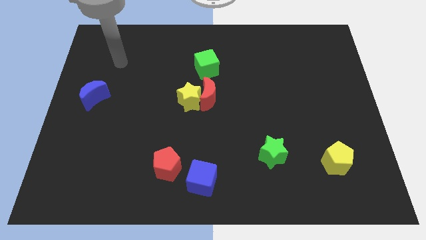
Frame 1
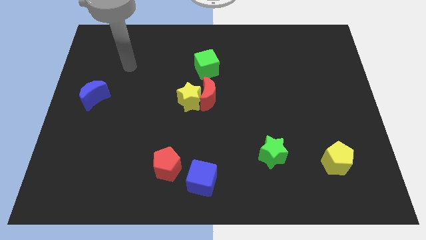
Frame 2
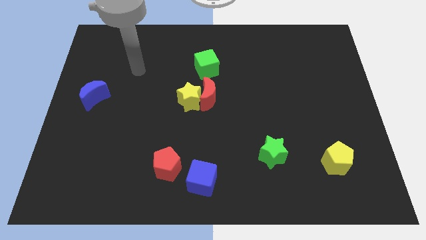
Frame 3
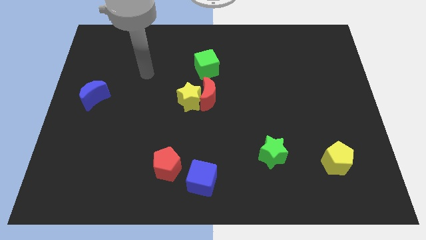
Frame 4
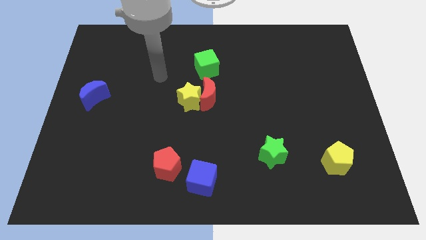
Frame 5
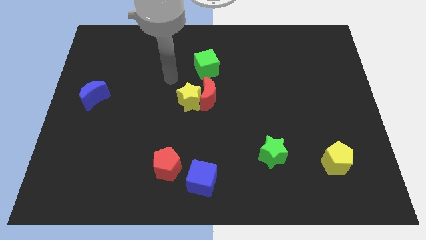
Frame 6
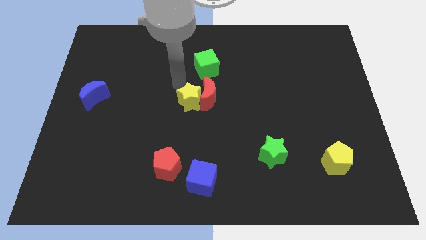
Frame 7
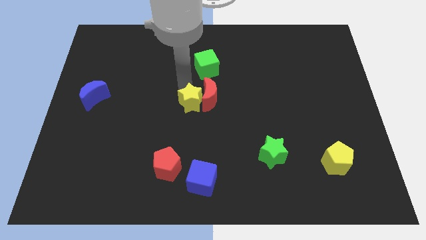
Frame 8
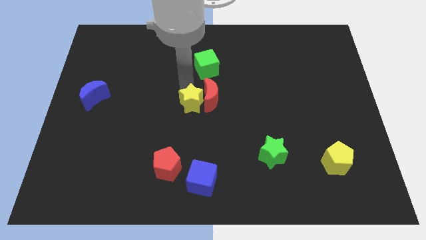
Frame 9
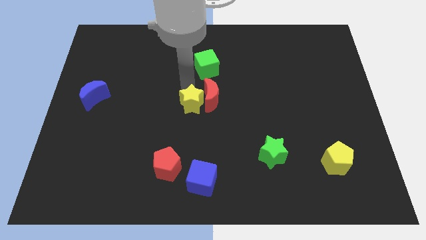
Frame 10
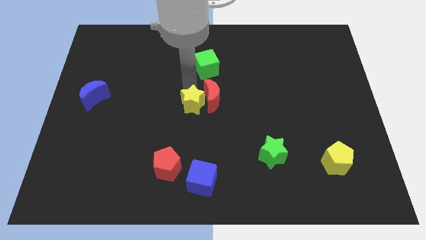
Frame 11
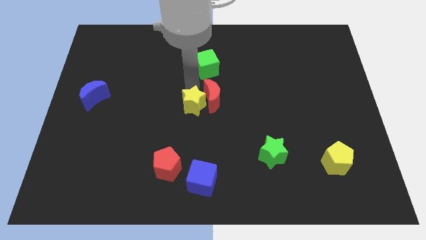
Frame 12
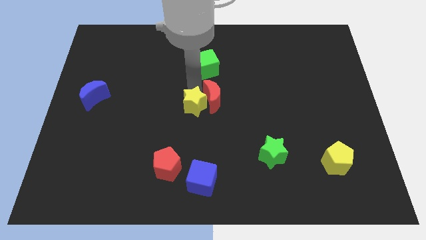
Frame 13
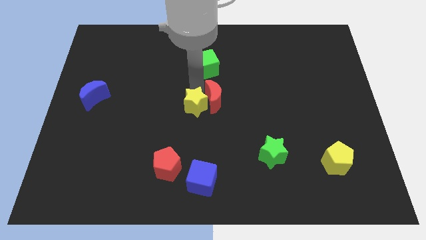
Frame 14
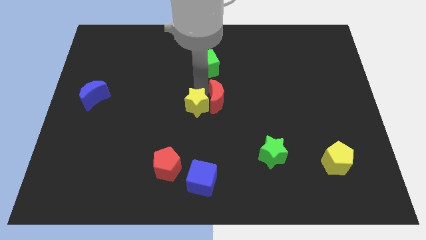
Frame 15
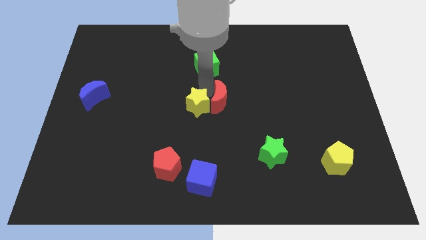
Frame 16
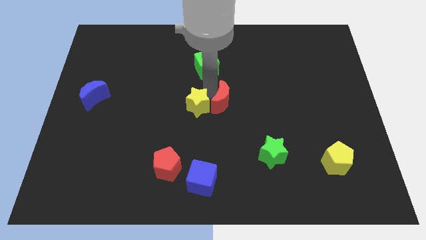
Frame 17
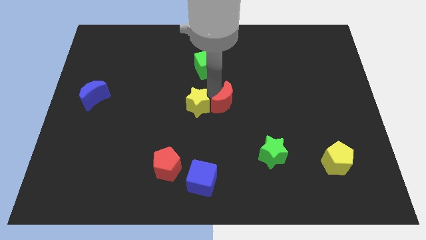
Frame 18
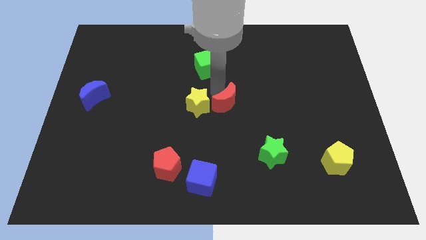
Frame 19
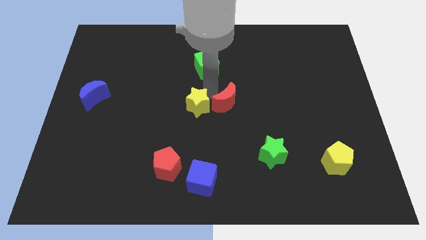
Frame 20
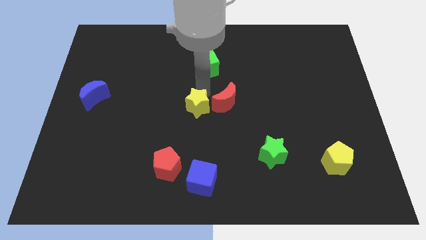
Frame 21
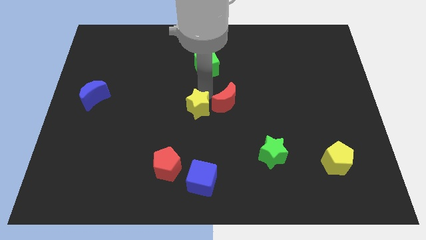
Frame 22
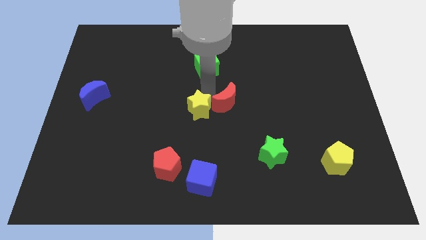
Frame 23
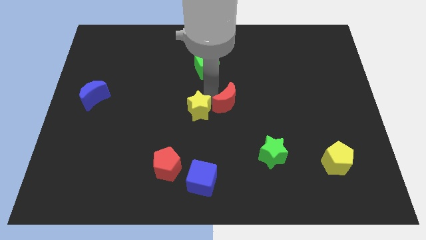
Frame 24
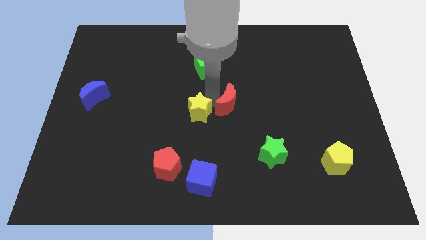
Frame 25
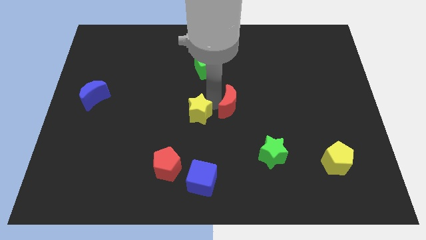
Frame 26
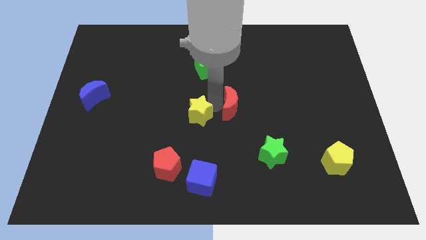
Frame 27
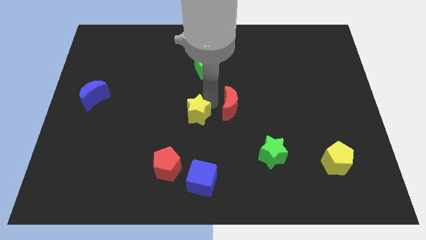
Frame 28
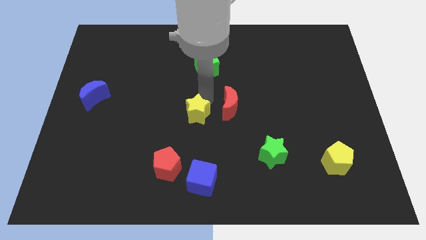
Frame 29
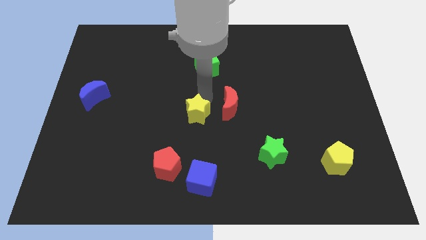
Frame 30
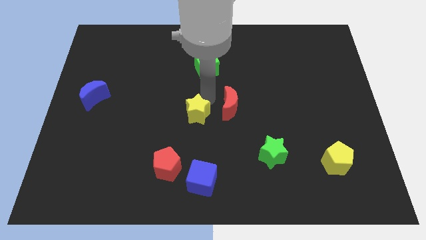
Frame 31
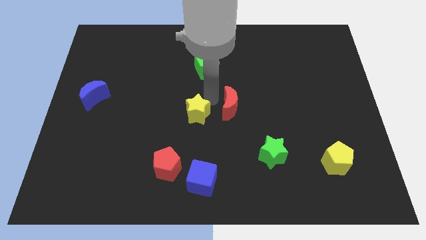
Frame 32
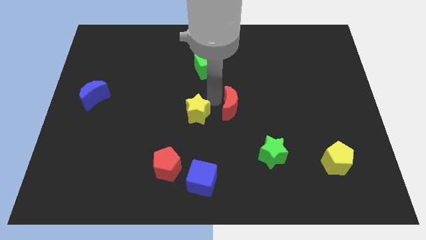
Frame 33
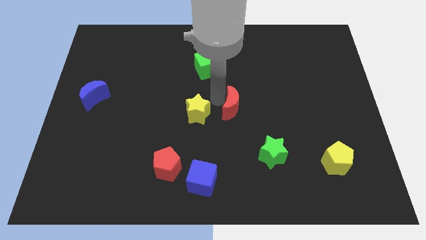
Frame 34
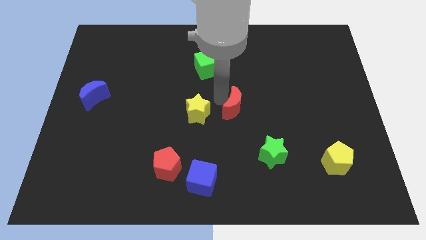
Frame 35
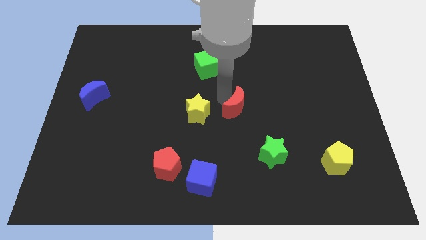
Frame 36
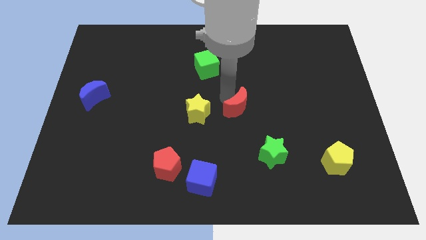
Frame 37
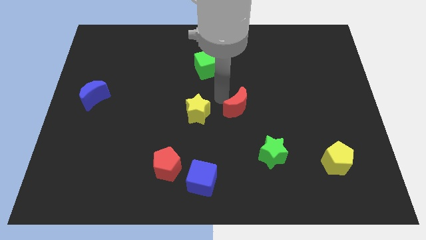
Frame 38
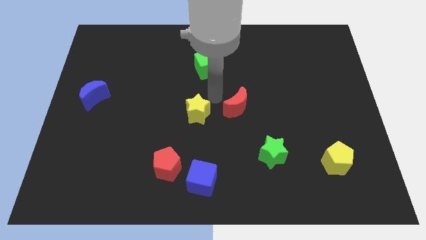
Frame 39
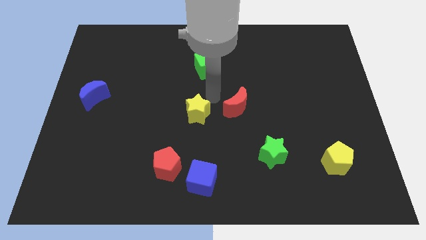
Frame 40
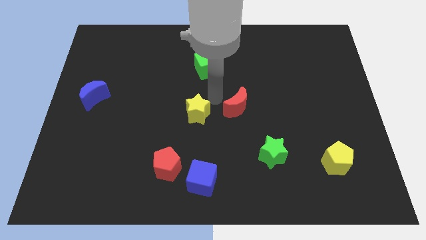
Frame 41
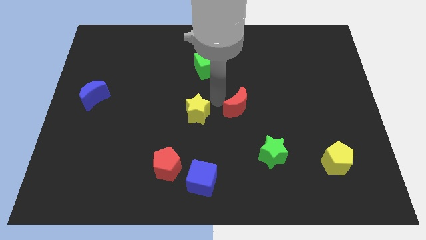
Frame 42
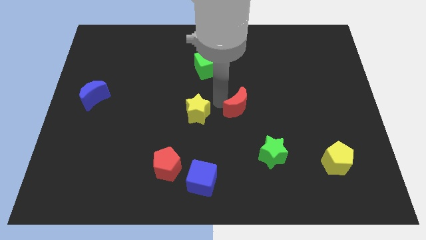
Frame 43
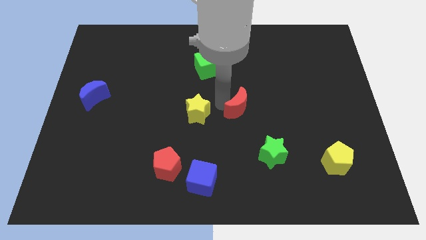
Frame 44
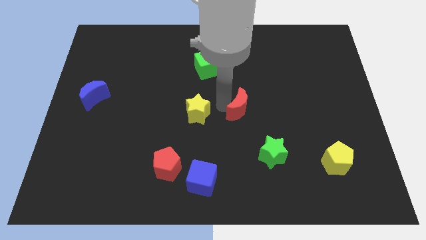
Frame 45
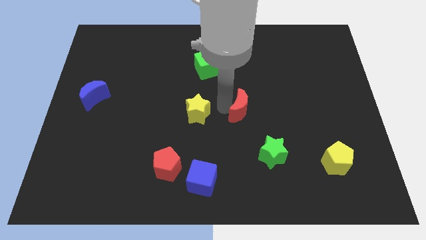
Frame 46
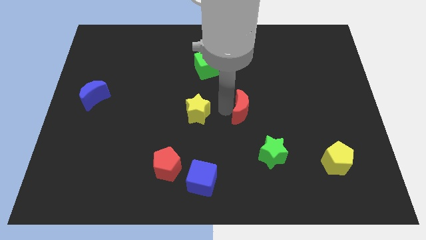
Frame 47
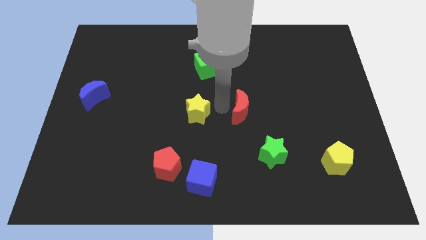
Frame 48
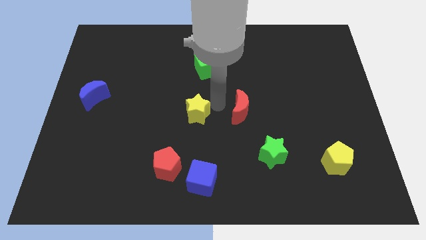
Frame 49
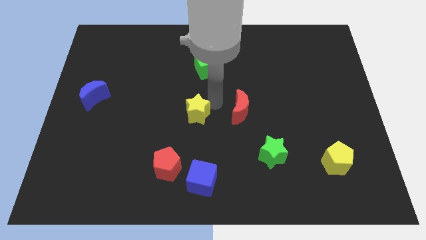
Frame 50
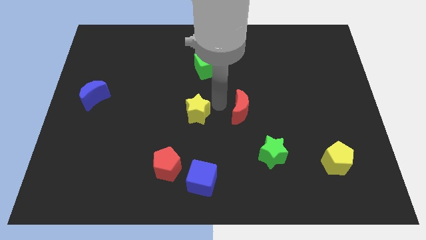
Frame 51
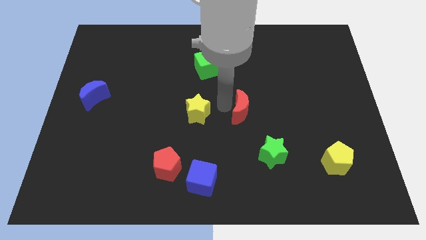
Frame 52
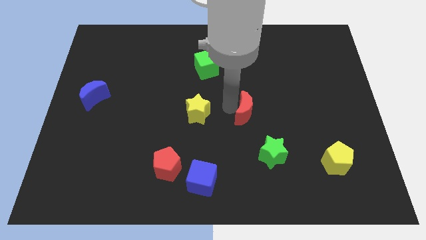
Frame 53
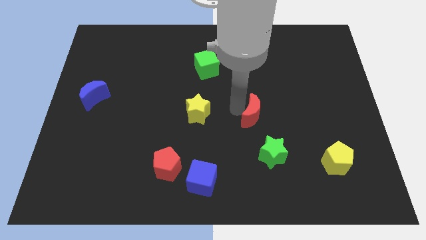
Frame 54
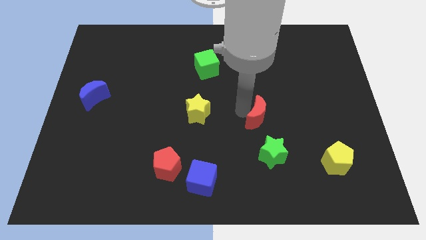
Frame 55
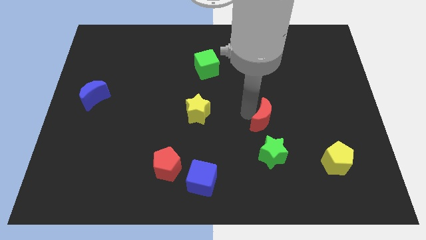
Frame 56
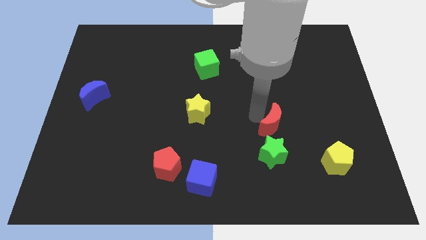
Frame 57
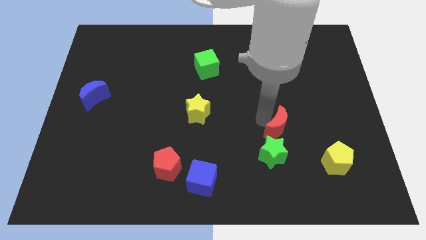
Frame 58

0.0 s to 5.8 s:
slide the red moon diagonally up and to the right of the green star

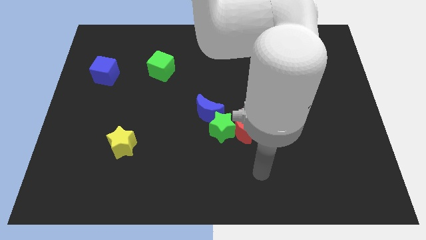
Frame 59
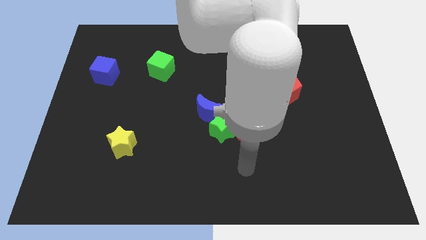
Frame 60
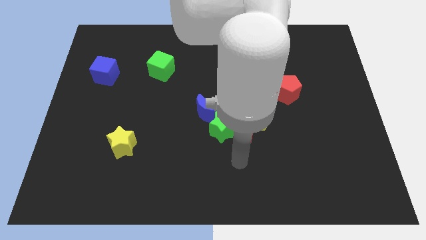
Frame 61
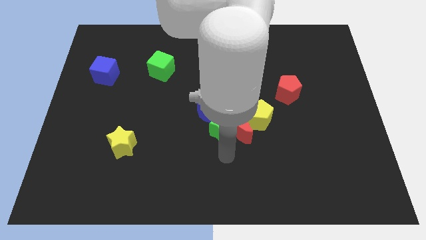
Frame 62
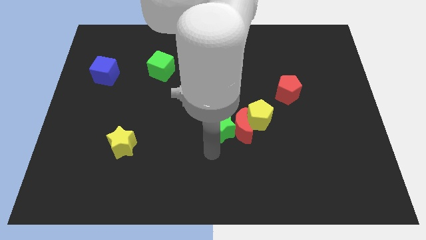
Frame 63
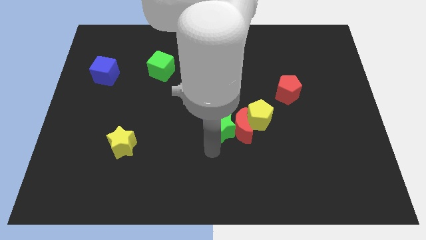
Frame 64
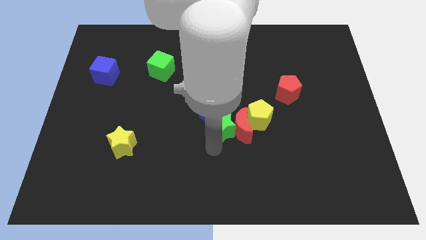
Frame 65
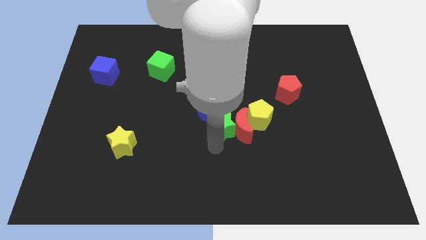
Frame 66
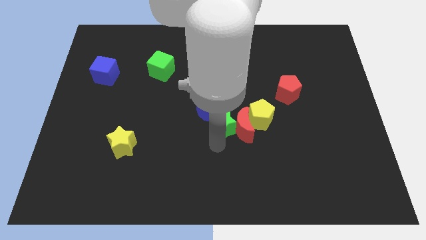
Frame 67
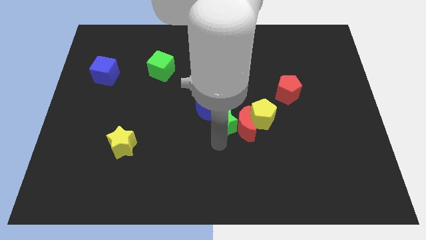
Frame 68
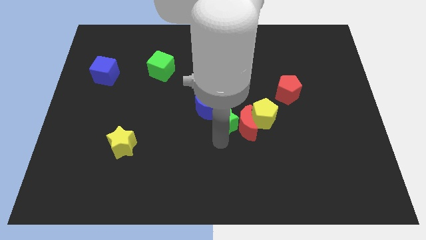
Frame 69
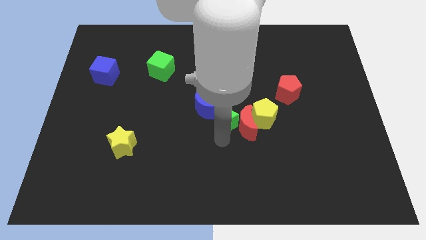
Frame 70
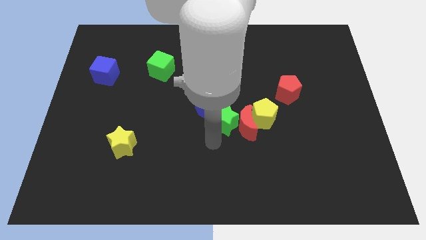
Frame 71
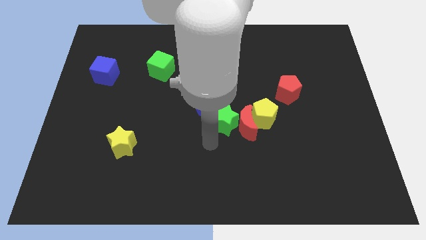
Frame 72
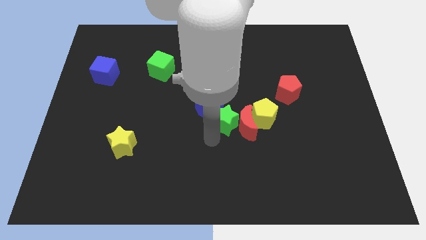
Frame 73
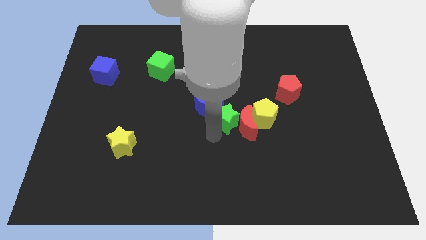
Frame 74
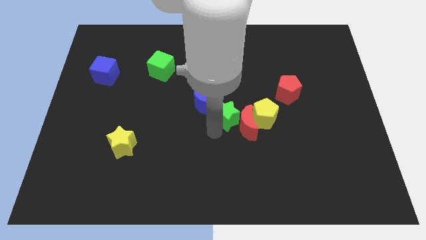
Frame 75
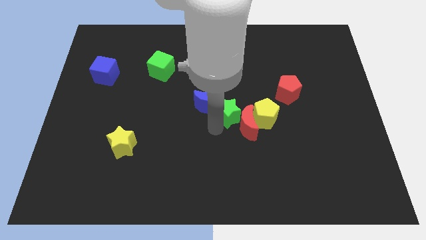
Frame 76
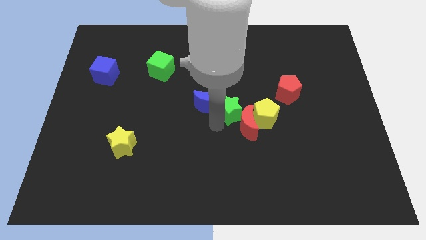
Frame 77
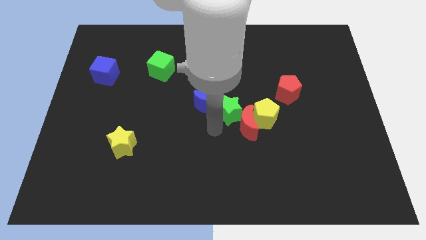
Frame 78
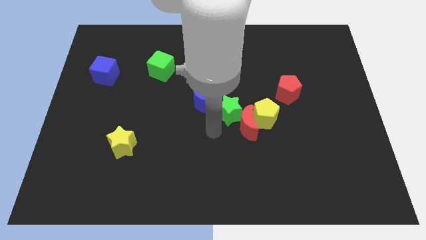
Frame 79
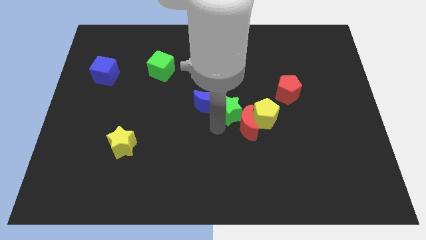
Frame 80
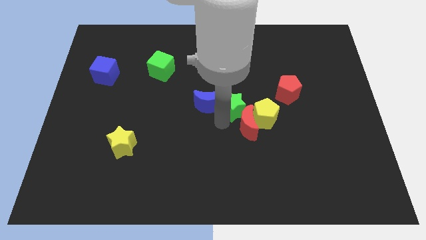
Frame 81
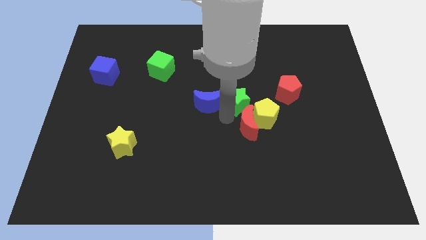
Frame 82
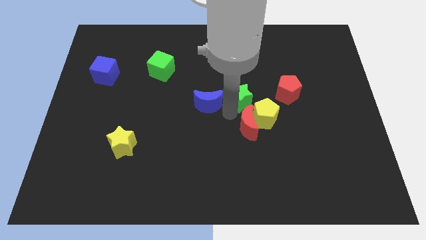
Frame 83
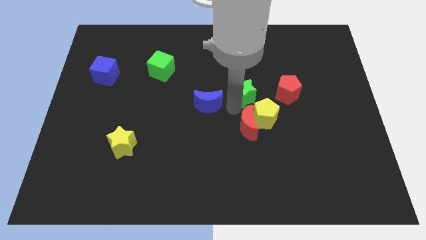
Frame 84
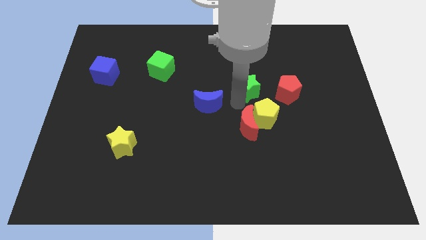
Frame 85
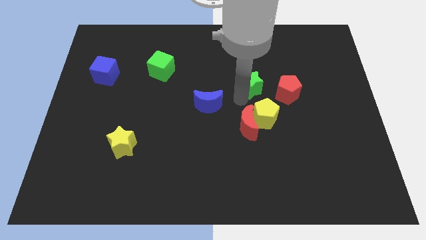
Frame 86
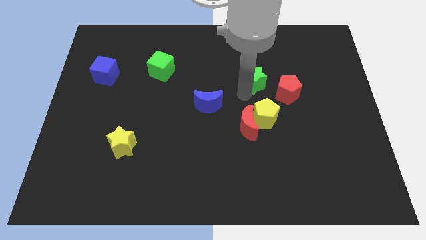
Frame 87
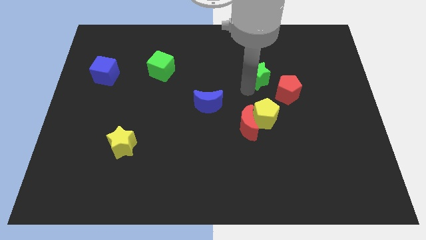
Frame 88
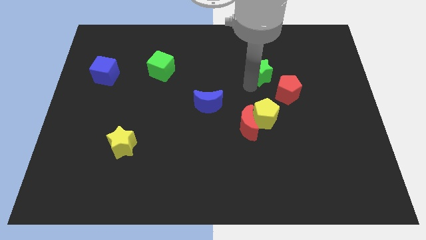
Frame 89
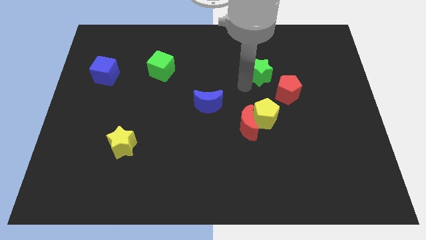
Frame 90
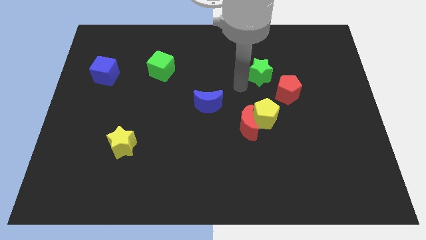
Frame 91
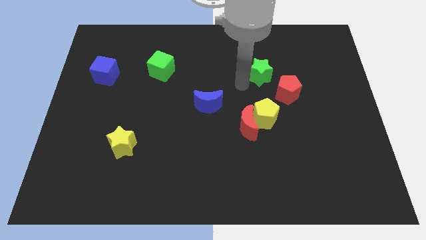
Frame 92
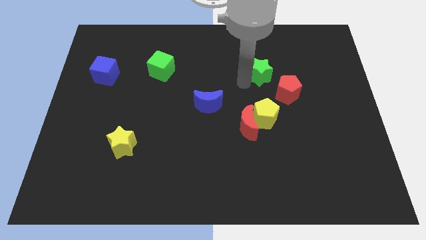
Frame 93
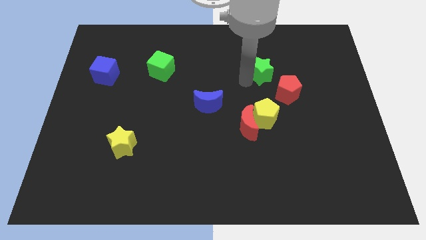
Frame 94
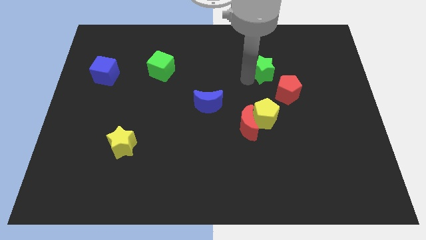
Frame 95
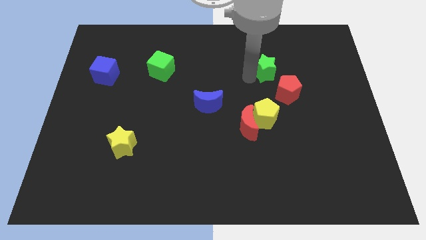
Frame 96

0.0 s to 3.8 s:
slide the green star above the red pentagon
